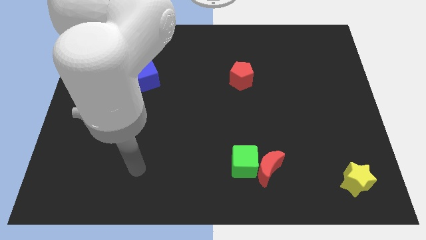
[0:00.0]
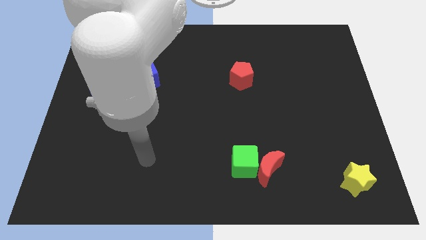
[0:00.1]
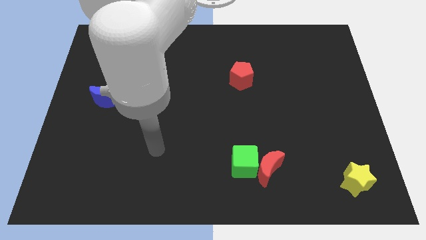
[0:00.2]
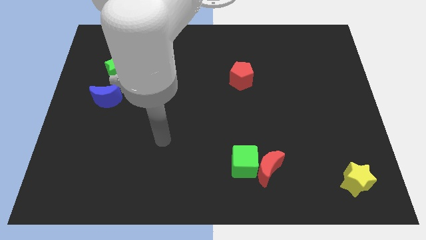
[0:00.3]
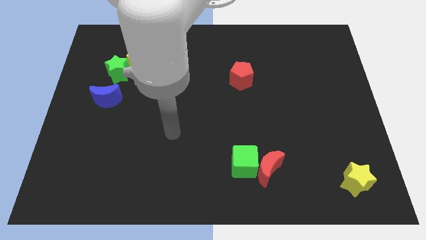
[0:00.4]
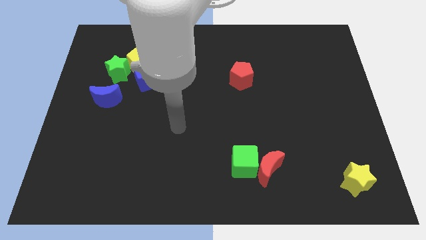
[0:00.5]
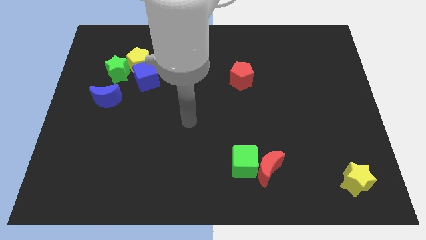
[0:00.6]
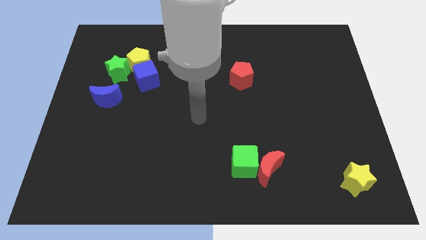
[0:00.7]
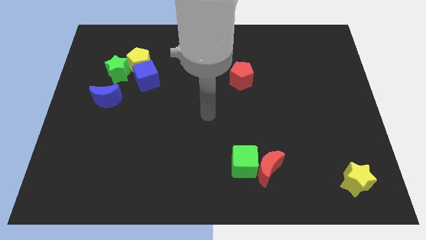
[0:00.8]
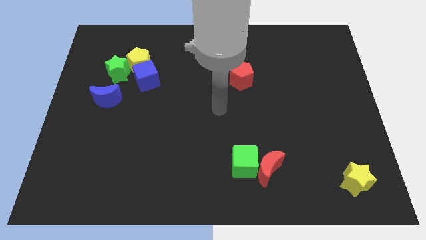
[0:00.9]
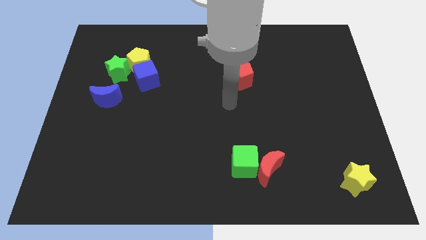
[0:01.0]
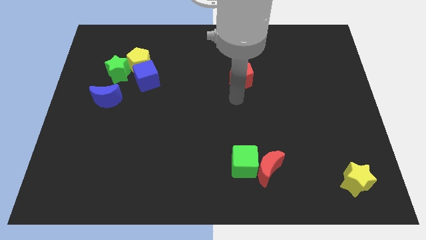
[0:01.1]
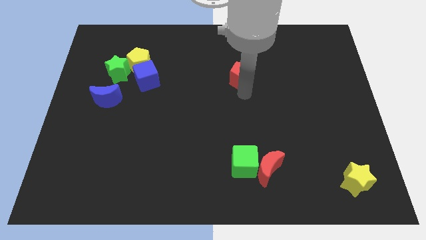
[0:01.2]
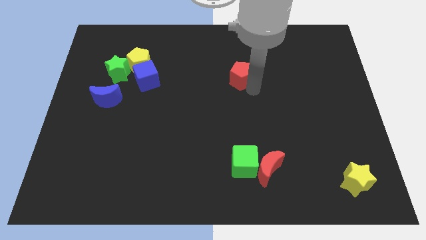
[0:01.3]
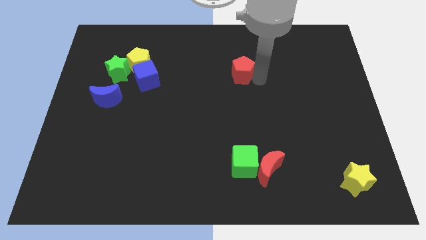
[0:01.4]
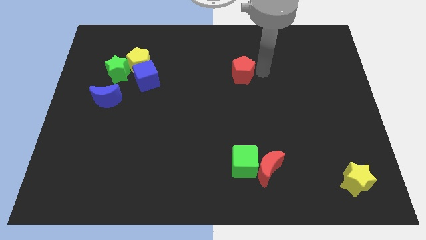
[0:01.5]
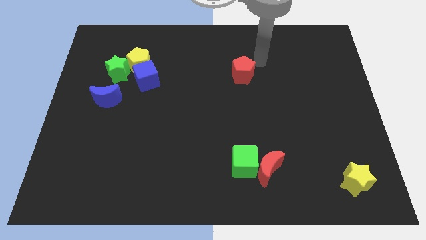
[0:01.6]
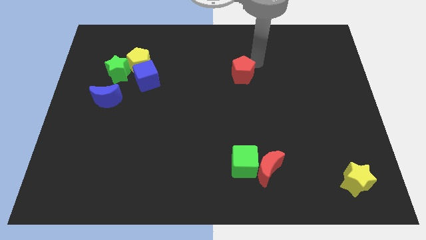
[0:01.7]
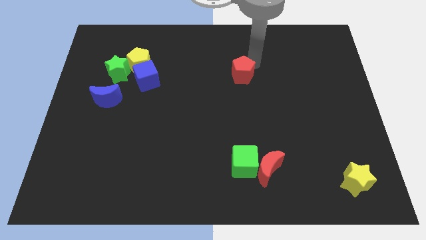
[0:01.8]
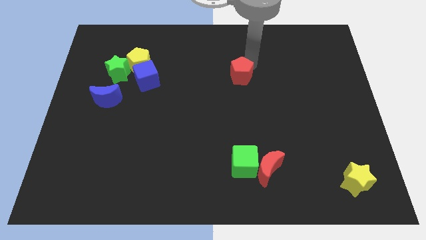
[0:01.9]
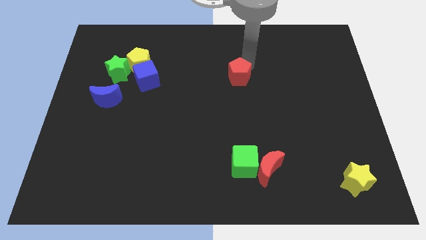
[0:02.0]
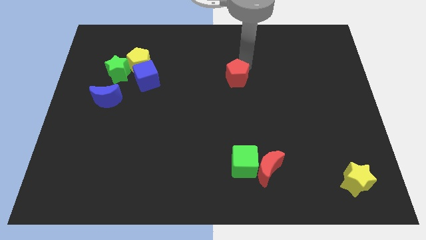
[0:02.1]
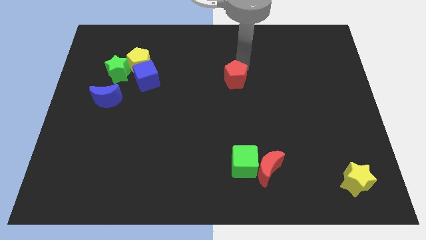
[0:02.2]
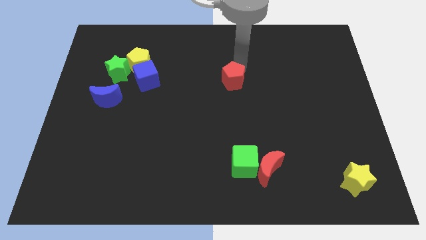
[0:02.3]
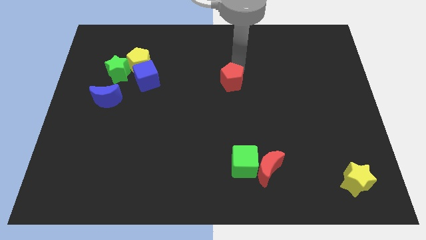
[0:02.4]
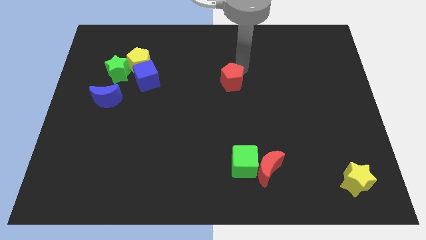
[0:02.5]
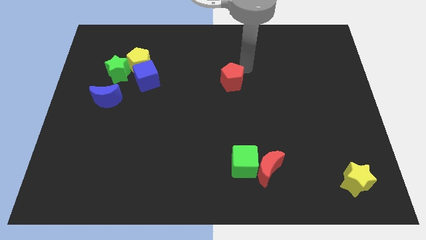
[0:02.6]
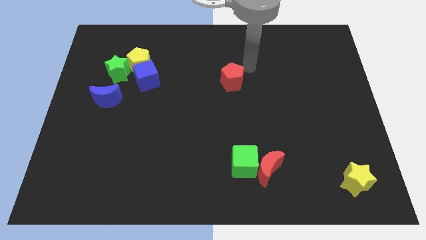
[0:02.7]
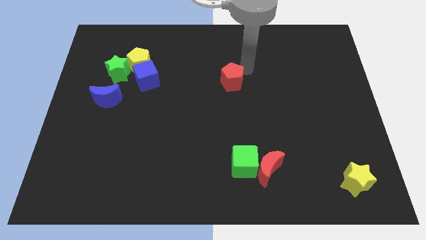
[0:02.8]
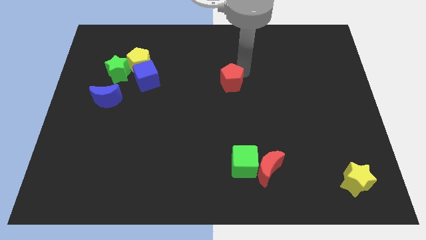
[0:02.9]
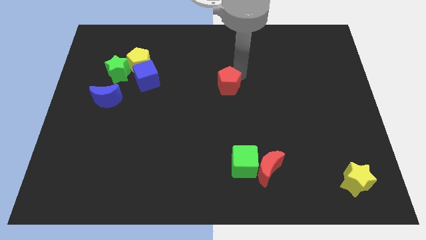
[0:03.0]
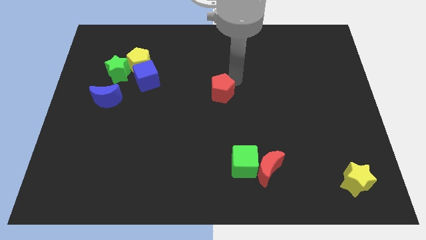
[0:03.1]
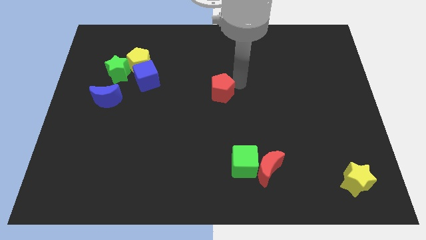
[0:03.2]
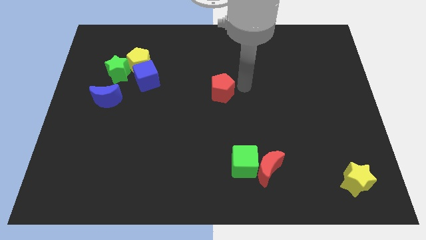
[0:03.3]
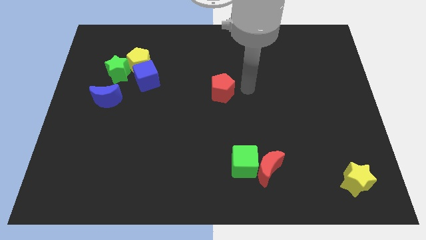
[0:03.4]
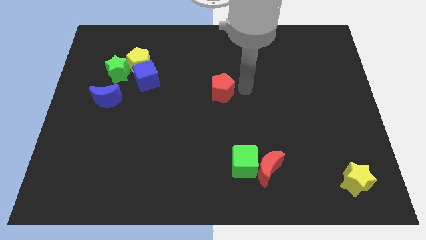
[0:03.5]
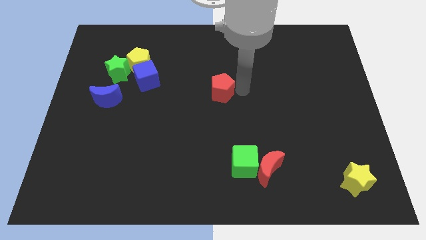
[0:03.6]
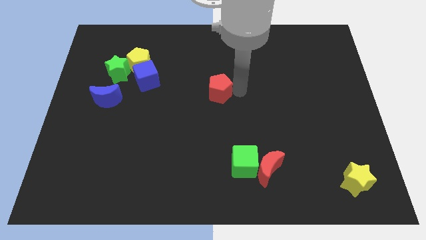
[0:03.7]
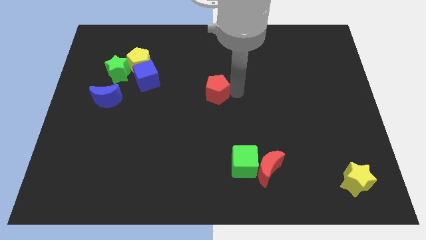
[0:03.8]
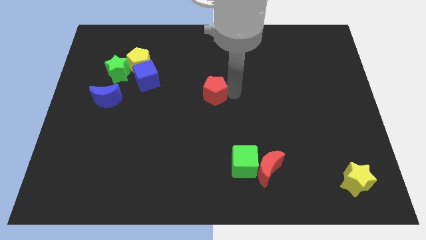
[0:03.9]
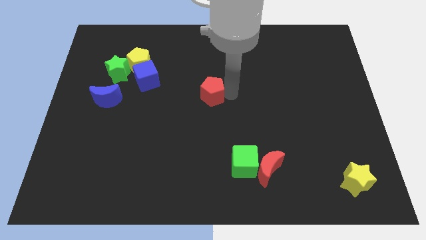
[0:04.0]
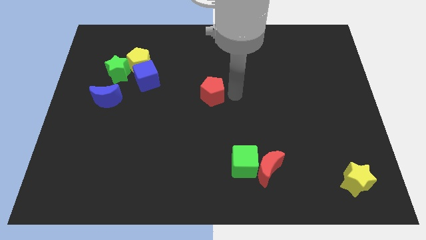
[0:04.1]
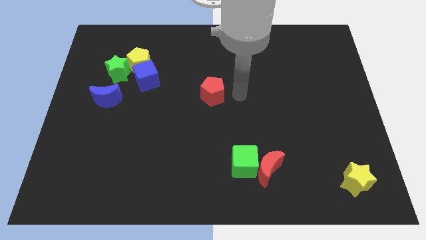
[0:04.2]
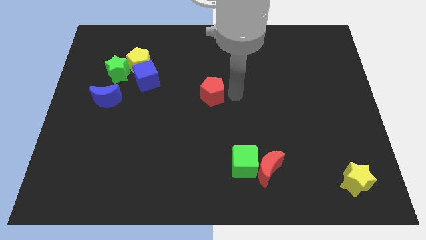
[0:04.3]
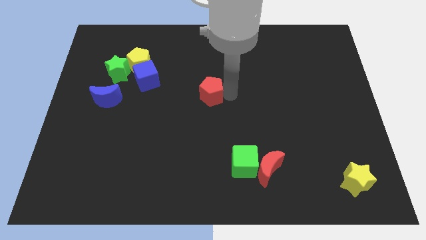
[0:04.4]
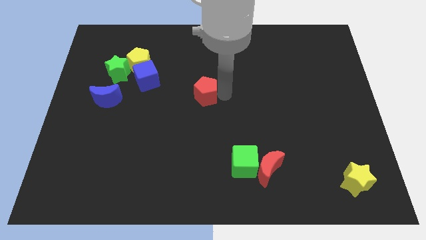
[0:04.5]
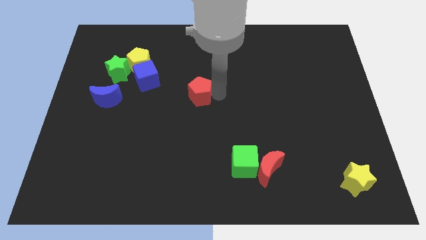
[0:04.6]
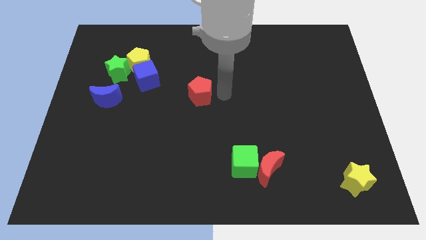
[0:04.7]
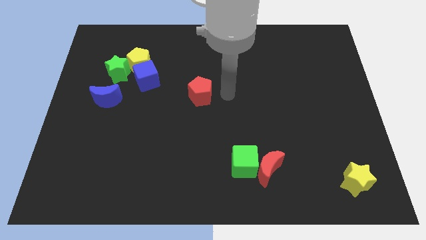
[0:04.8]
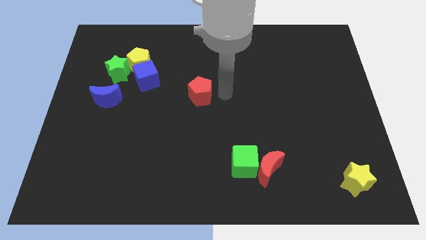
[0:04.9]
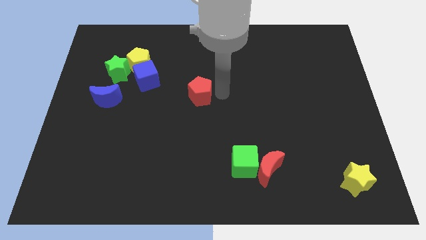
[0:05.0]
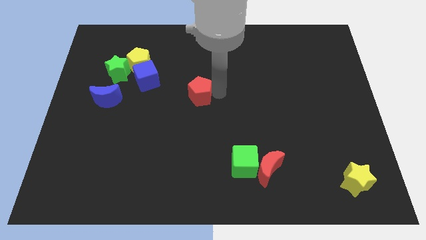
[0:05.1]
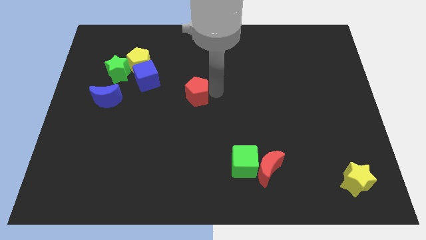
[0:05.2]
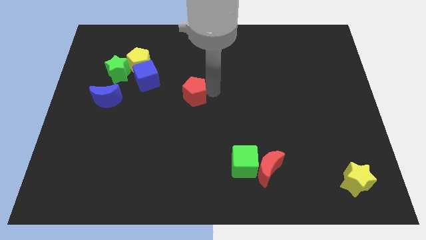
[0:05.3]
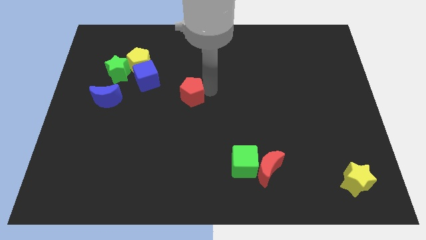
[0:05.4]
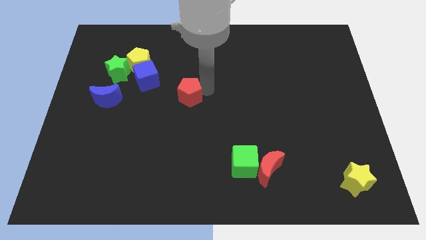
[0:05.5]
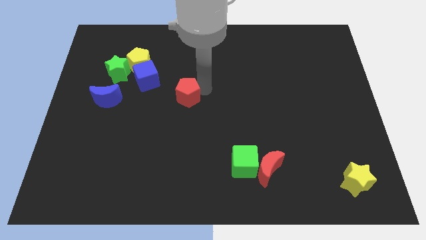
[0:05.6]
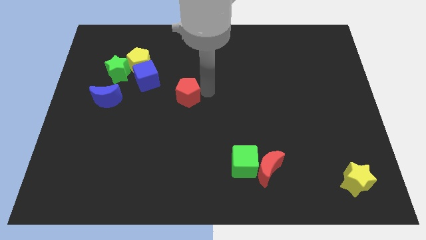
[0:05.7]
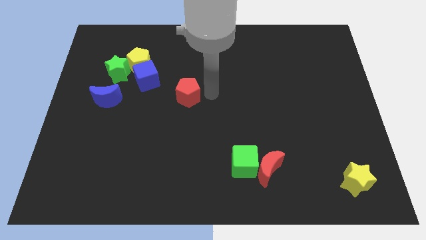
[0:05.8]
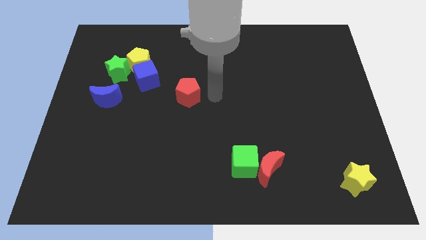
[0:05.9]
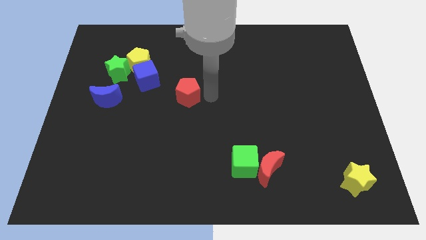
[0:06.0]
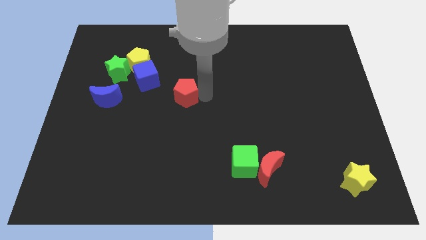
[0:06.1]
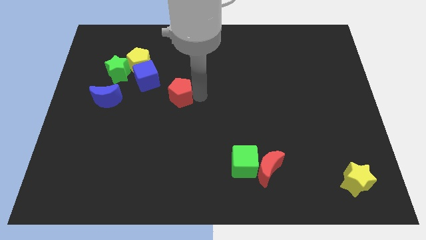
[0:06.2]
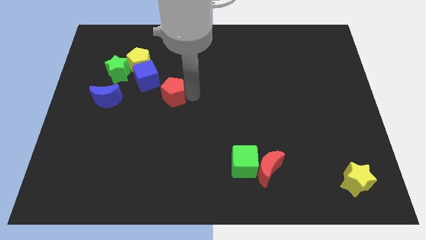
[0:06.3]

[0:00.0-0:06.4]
move the red pentagon just right of the blue moon
